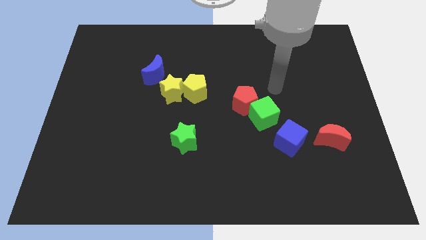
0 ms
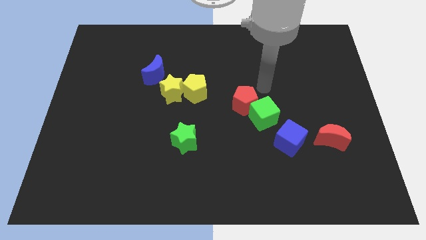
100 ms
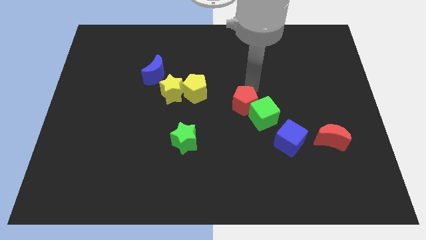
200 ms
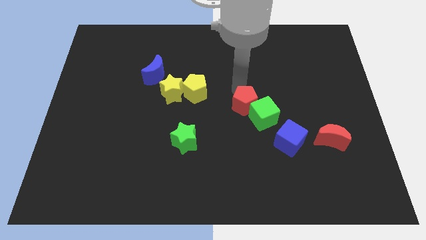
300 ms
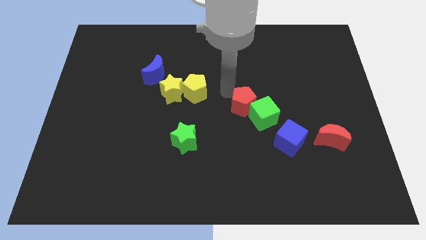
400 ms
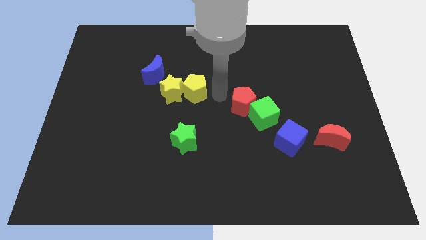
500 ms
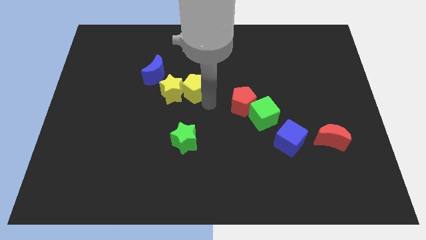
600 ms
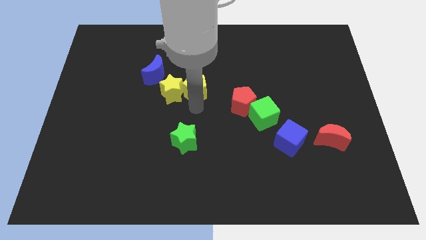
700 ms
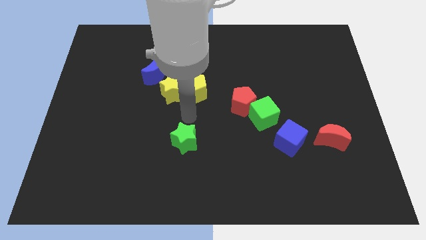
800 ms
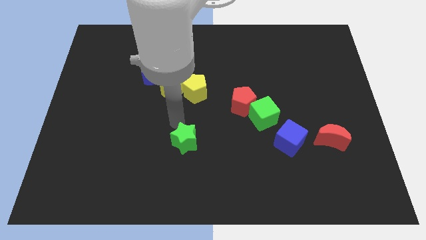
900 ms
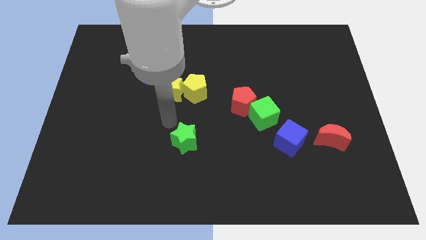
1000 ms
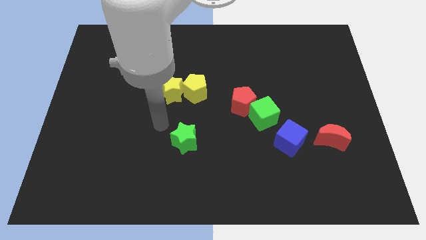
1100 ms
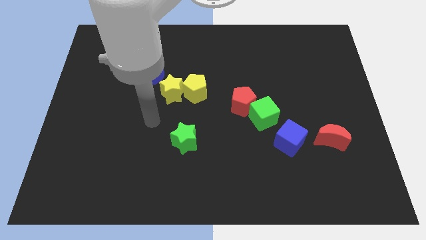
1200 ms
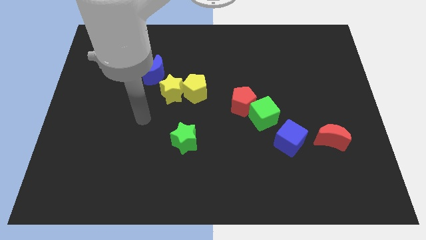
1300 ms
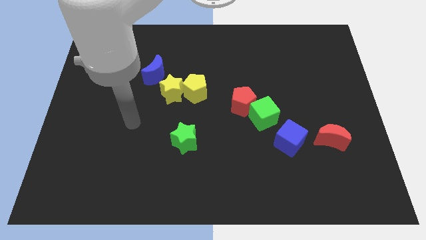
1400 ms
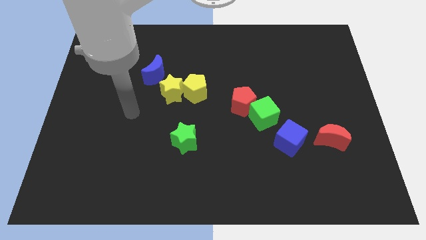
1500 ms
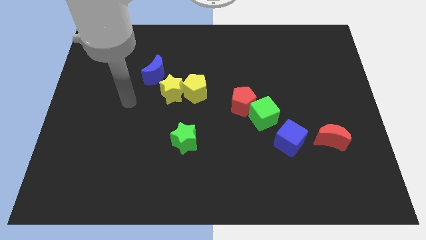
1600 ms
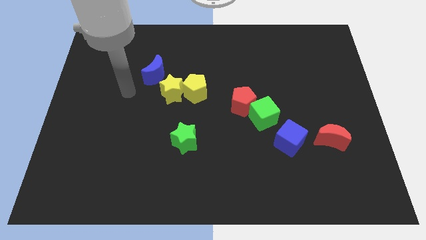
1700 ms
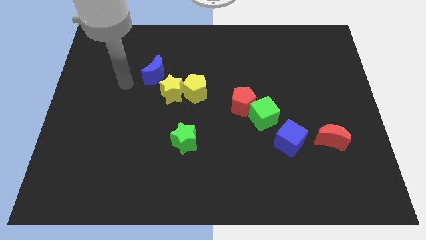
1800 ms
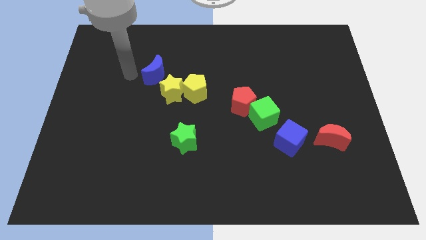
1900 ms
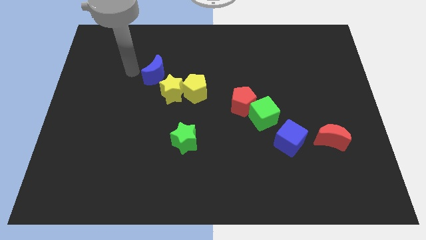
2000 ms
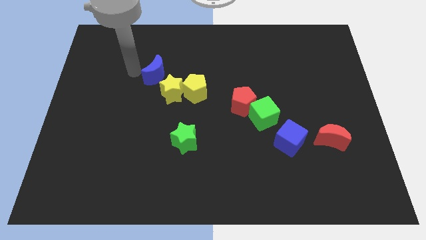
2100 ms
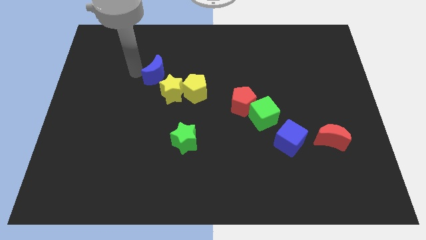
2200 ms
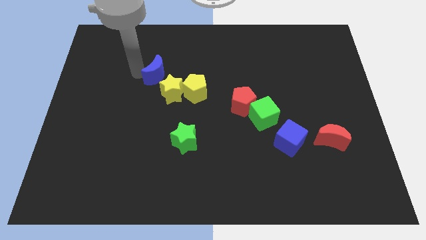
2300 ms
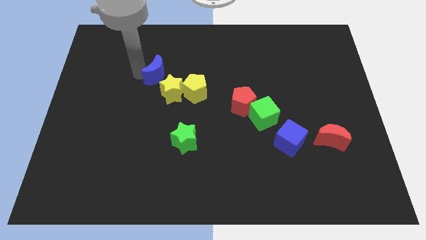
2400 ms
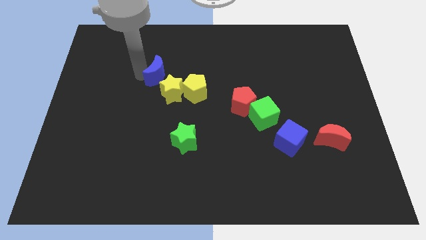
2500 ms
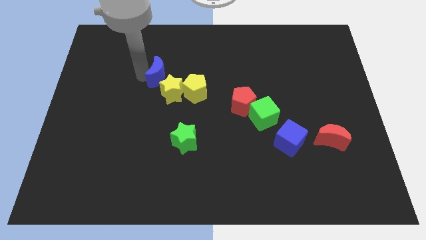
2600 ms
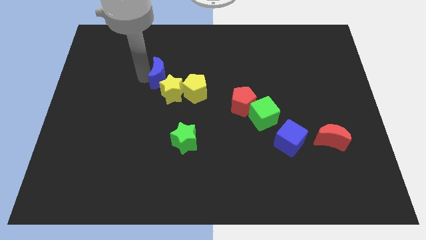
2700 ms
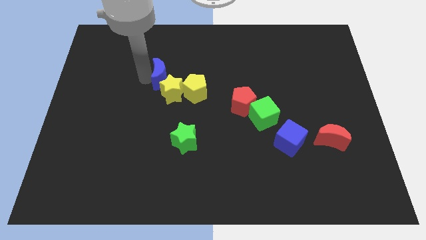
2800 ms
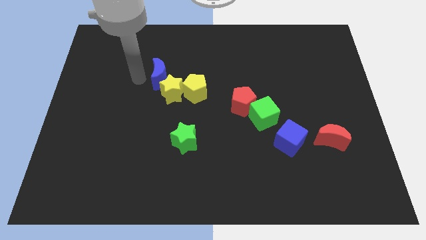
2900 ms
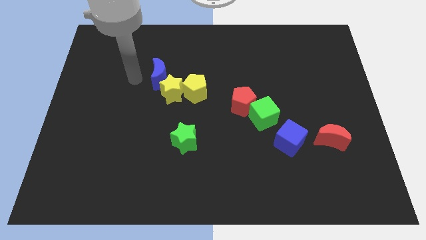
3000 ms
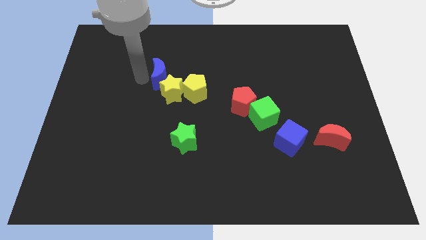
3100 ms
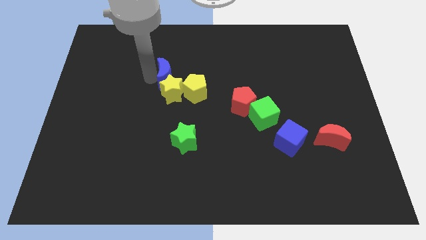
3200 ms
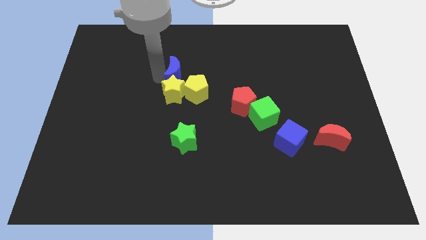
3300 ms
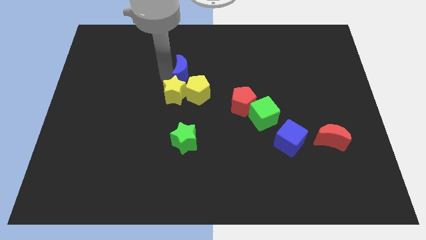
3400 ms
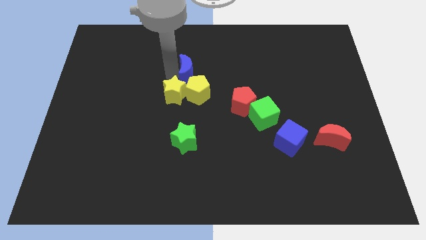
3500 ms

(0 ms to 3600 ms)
push the blue moon a little bit to the right

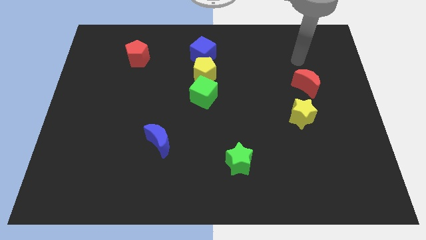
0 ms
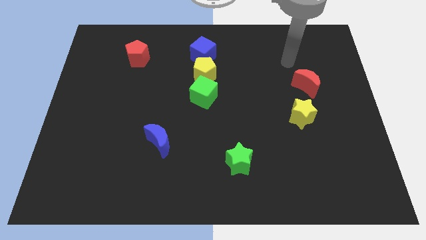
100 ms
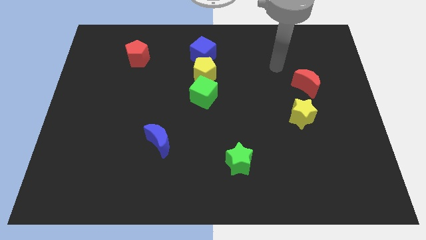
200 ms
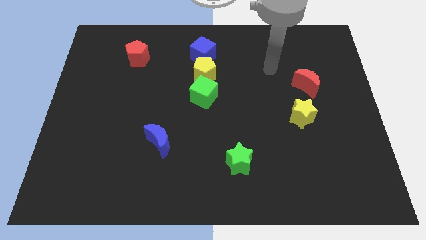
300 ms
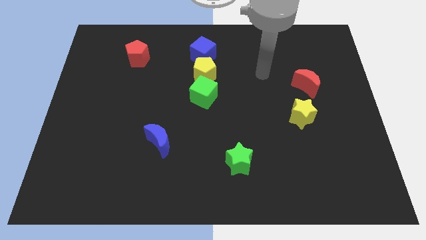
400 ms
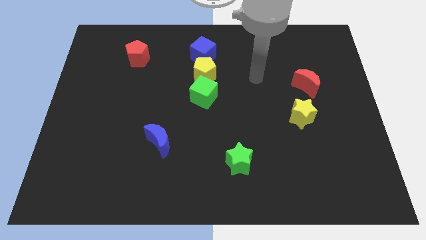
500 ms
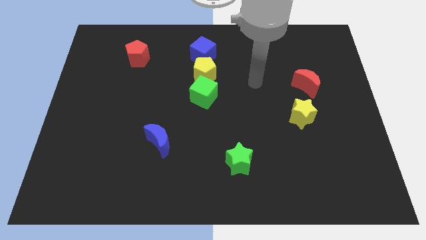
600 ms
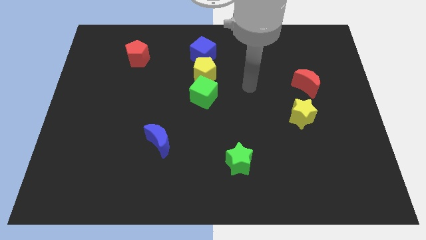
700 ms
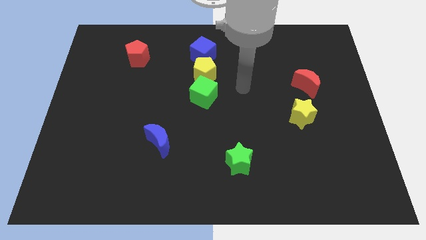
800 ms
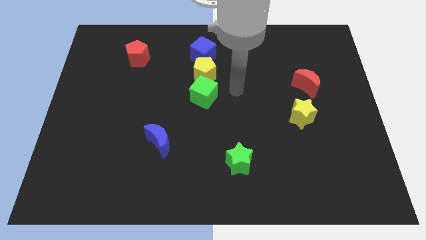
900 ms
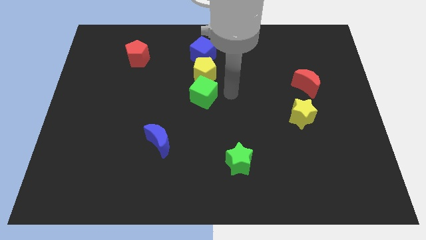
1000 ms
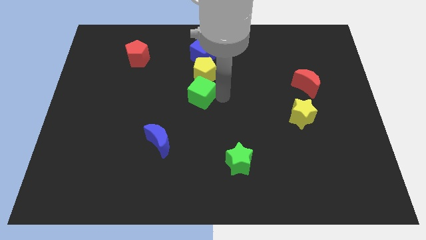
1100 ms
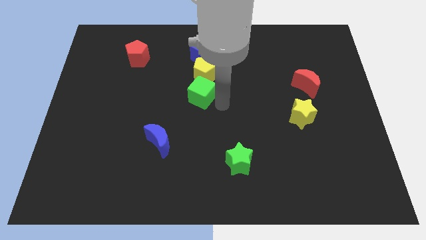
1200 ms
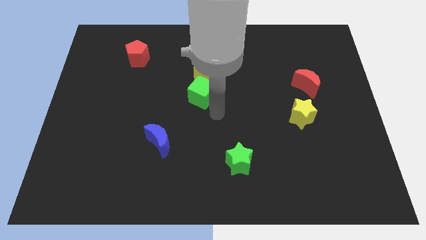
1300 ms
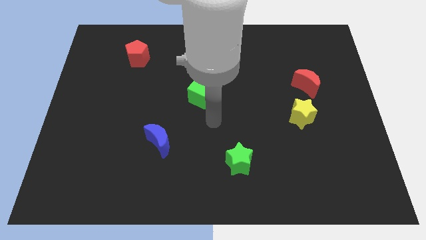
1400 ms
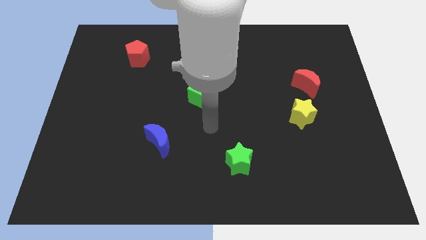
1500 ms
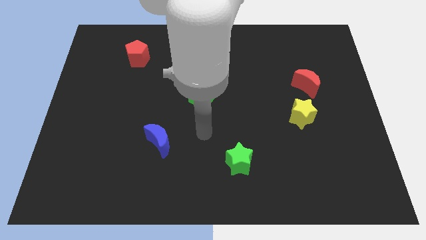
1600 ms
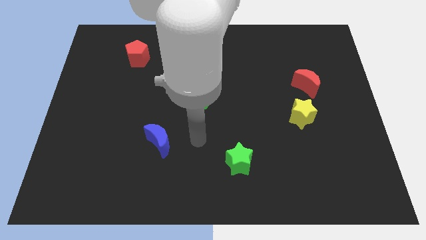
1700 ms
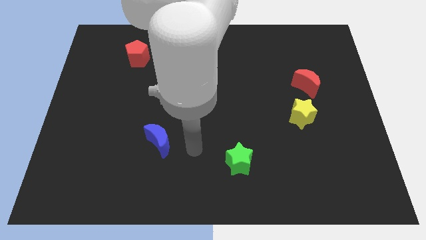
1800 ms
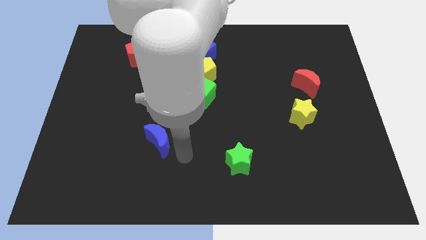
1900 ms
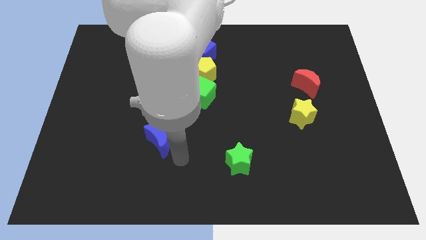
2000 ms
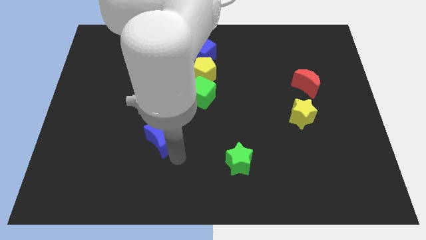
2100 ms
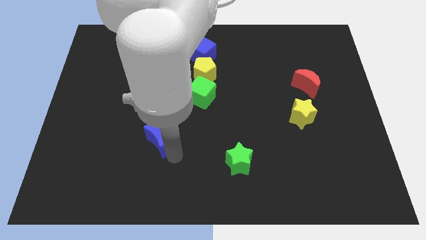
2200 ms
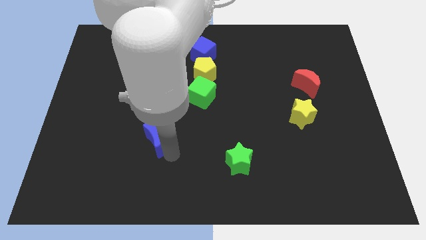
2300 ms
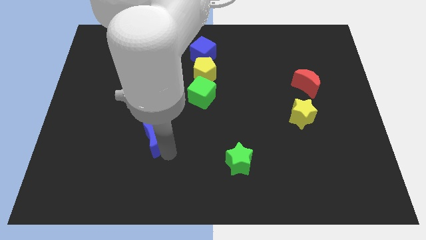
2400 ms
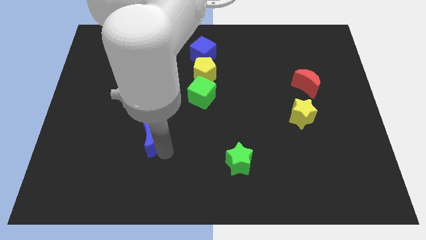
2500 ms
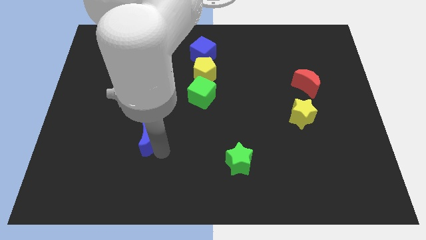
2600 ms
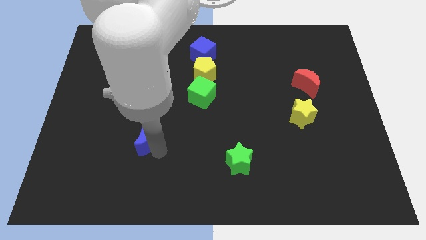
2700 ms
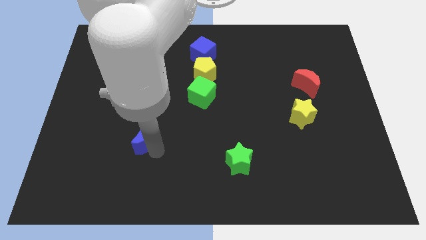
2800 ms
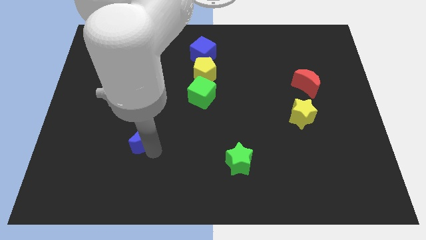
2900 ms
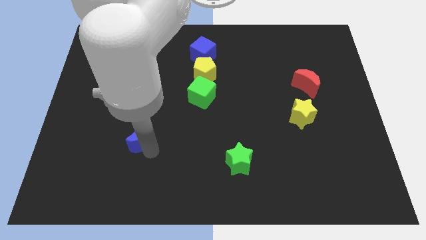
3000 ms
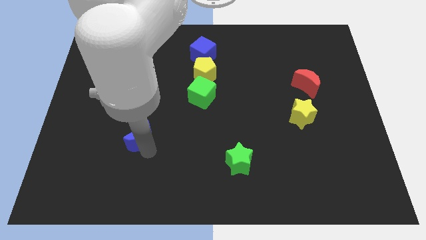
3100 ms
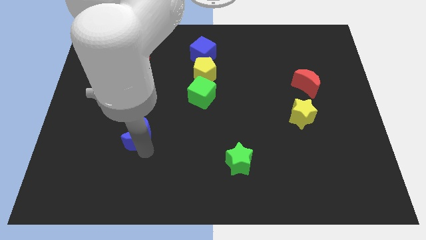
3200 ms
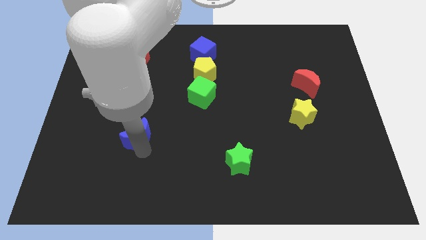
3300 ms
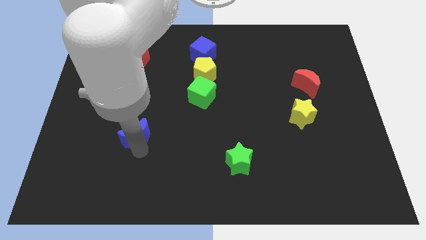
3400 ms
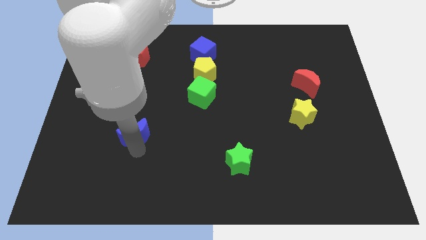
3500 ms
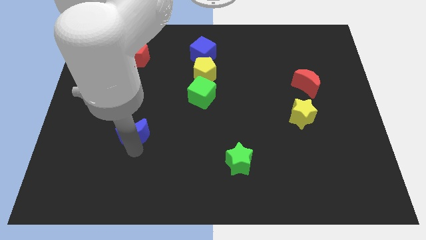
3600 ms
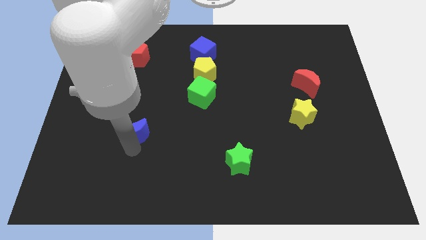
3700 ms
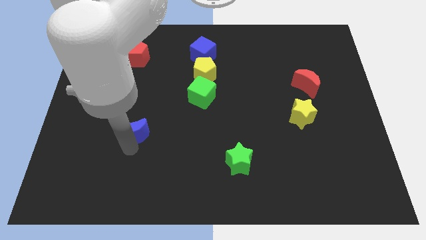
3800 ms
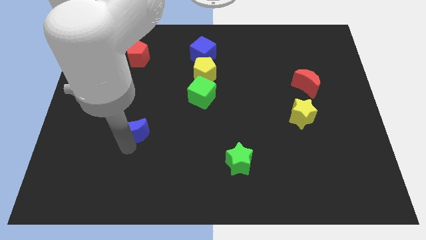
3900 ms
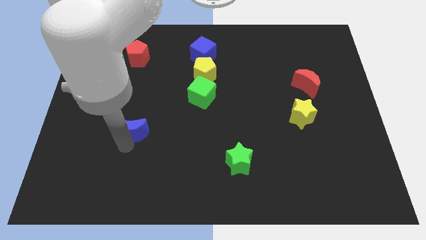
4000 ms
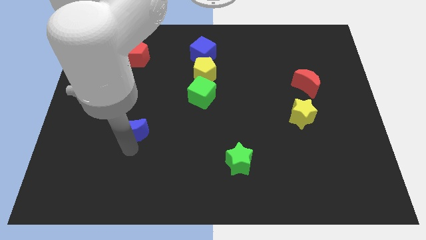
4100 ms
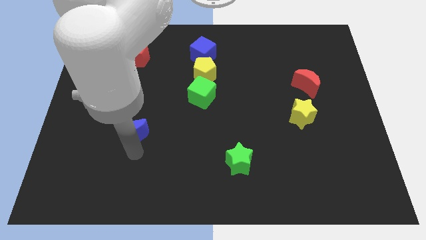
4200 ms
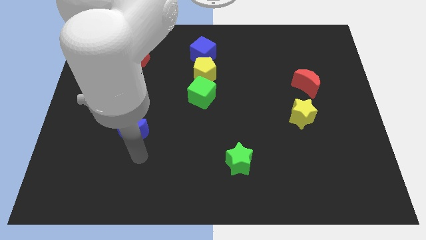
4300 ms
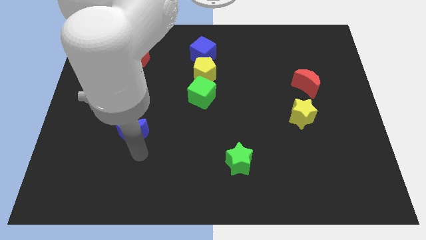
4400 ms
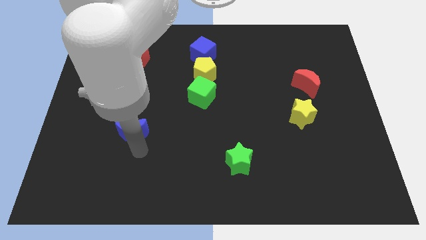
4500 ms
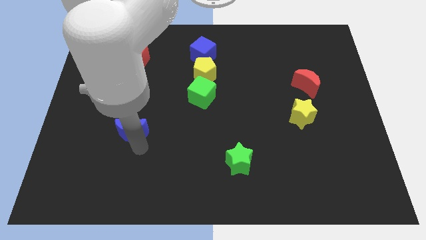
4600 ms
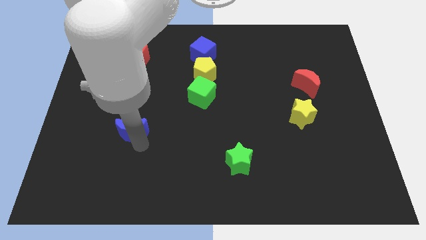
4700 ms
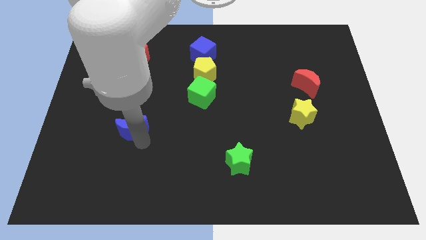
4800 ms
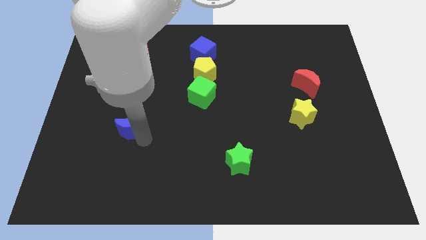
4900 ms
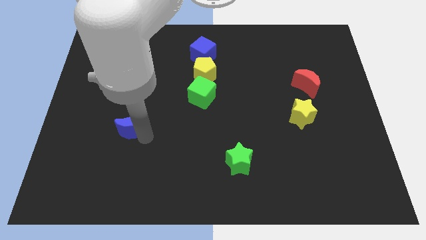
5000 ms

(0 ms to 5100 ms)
slide the blue moon a little bit up and then to the left
